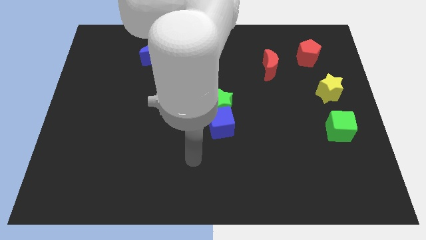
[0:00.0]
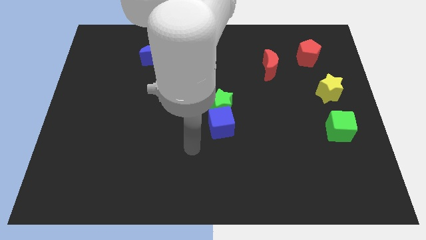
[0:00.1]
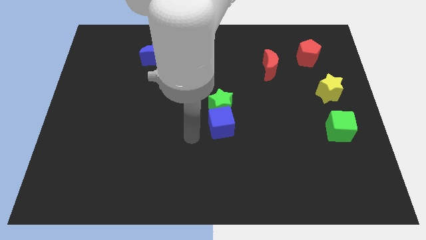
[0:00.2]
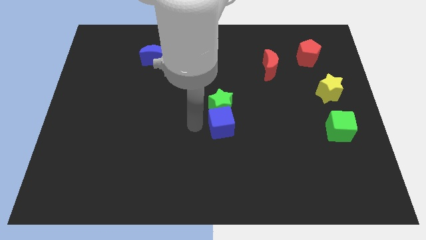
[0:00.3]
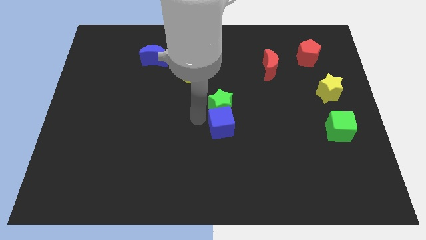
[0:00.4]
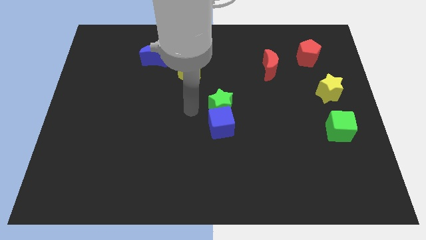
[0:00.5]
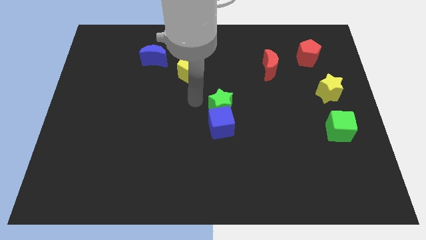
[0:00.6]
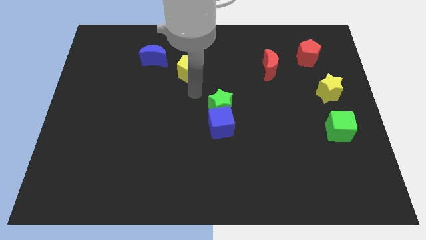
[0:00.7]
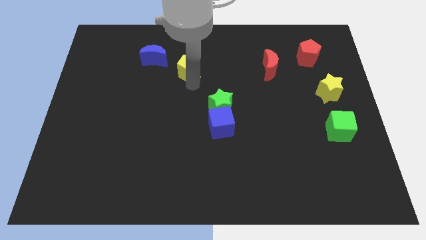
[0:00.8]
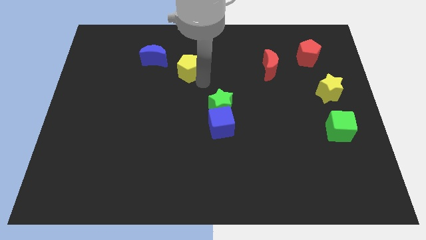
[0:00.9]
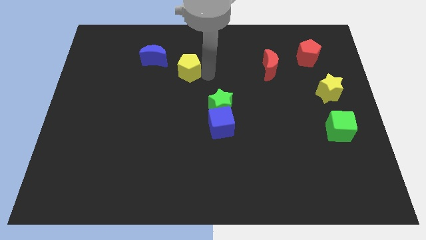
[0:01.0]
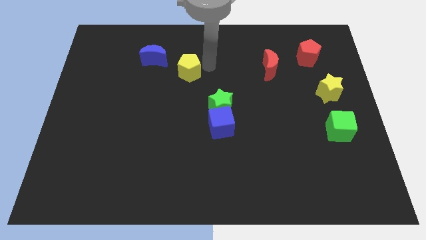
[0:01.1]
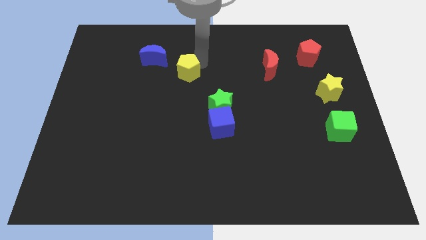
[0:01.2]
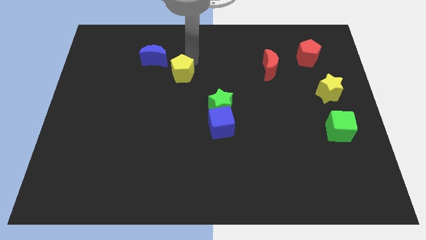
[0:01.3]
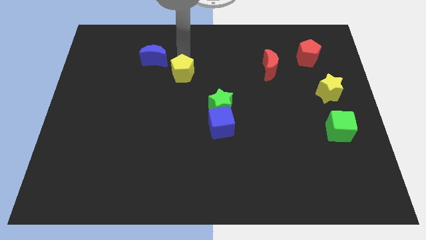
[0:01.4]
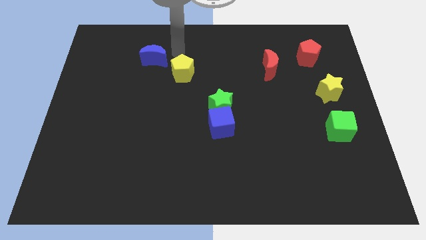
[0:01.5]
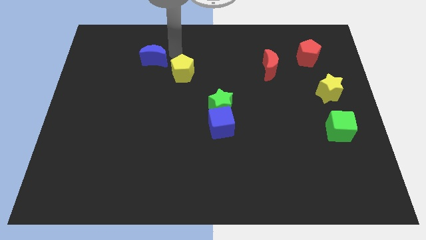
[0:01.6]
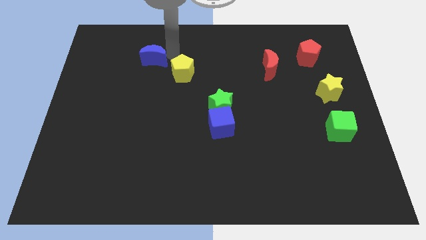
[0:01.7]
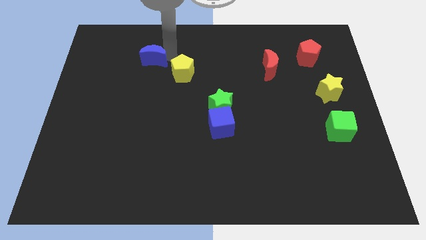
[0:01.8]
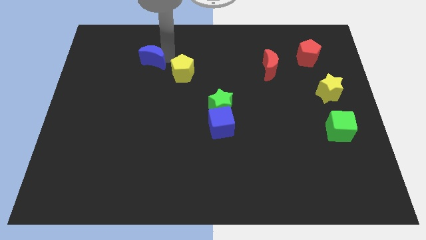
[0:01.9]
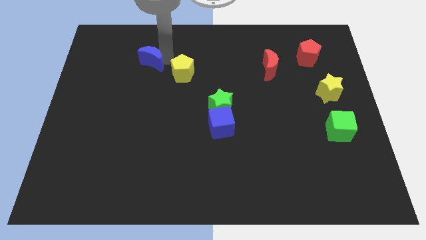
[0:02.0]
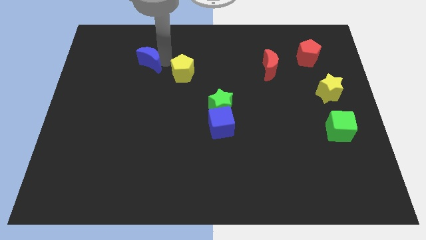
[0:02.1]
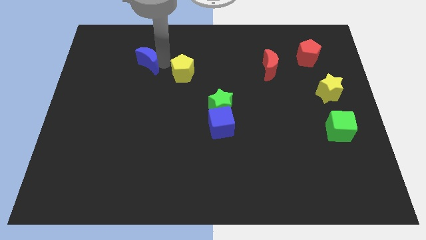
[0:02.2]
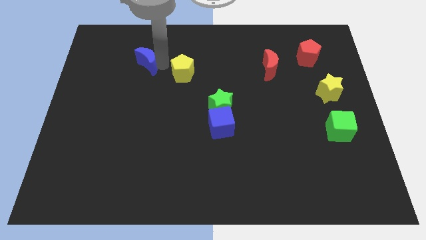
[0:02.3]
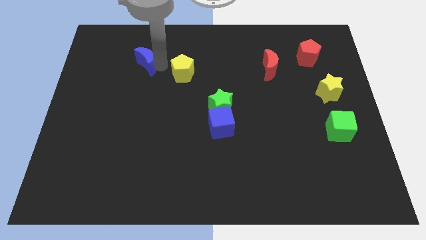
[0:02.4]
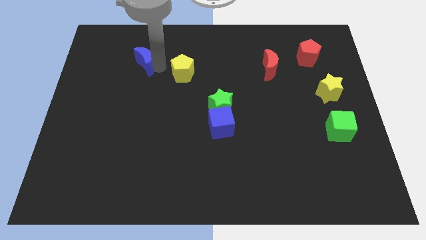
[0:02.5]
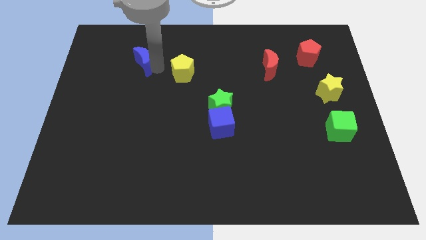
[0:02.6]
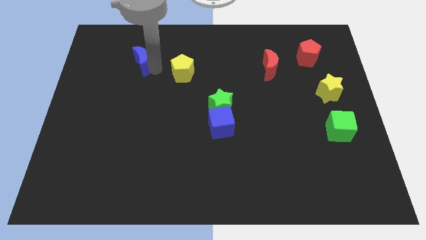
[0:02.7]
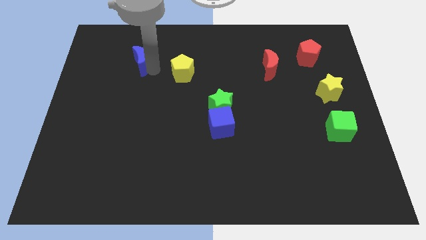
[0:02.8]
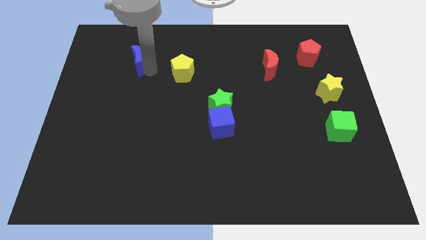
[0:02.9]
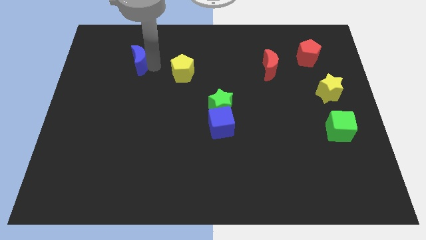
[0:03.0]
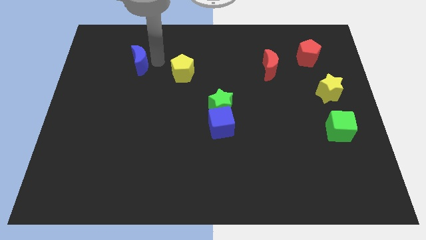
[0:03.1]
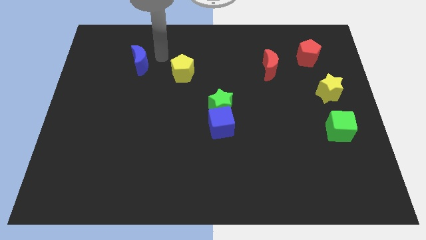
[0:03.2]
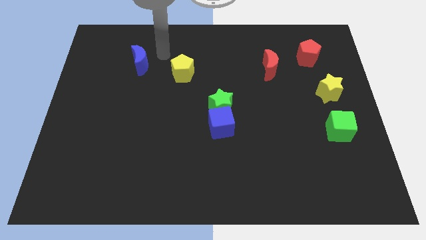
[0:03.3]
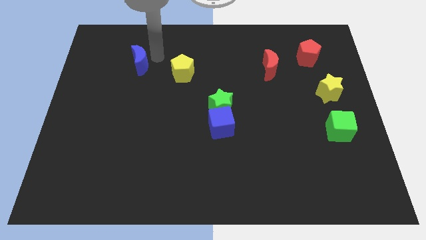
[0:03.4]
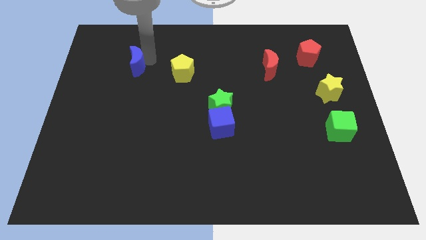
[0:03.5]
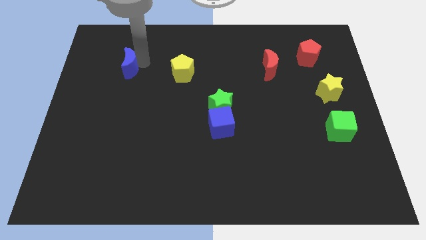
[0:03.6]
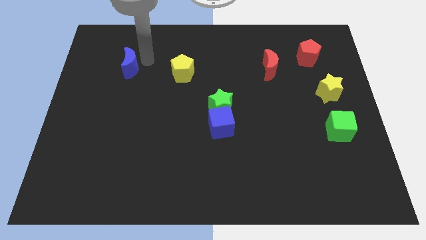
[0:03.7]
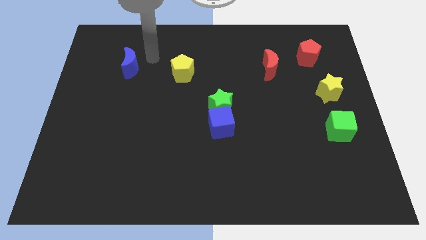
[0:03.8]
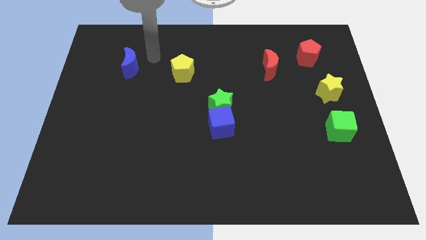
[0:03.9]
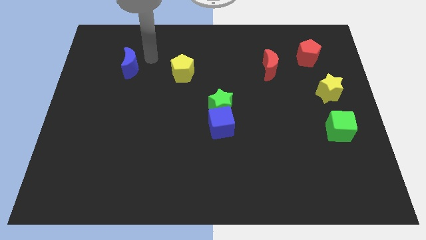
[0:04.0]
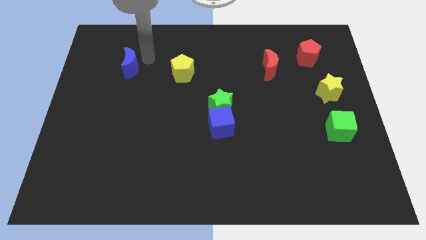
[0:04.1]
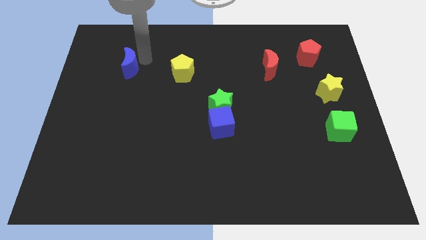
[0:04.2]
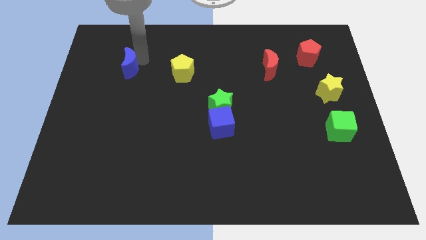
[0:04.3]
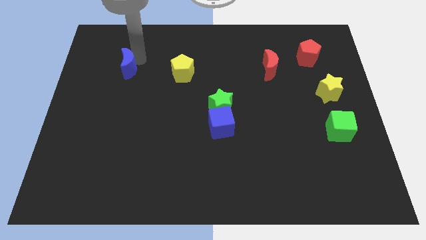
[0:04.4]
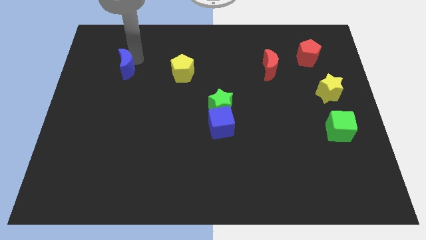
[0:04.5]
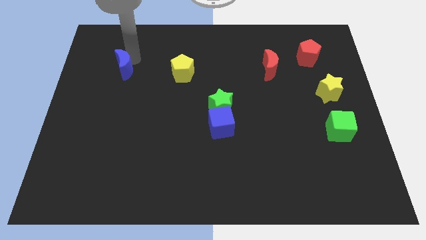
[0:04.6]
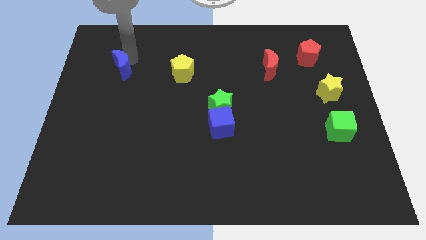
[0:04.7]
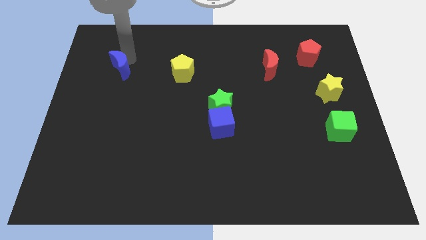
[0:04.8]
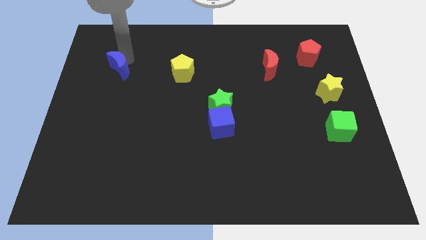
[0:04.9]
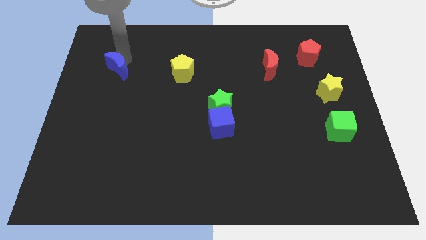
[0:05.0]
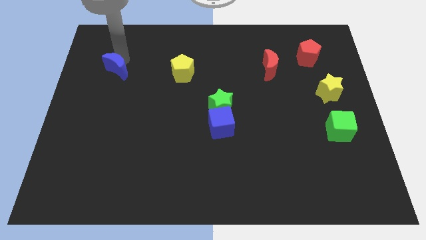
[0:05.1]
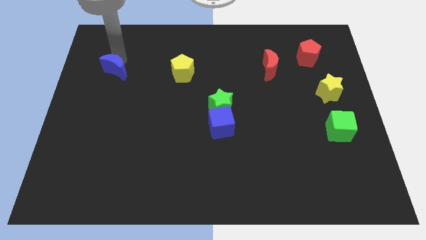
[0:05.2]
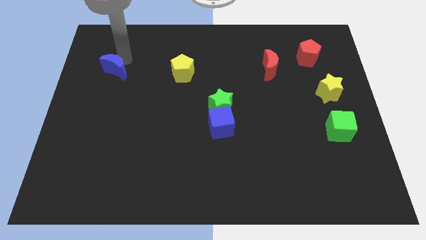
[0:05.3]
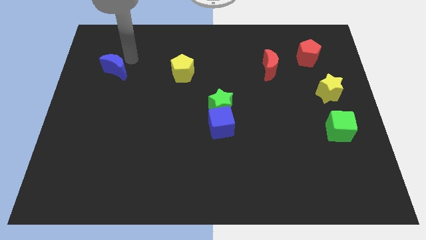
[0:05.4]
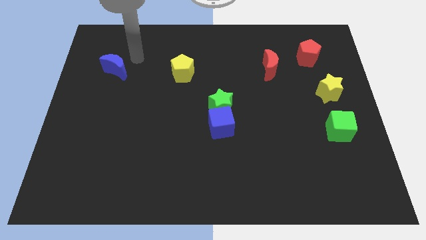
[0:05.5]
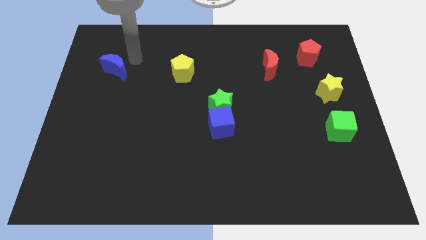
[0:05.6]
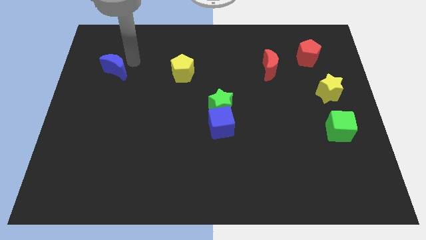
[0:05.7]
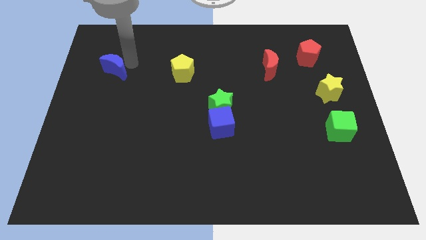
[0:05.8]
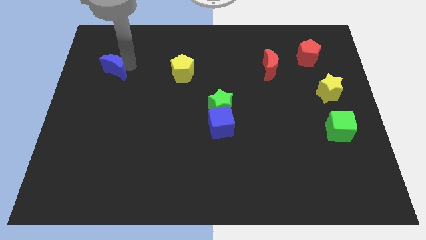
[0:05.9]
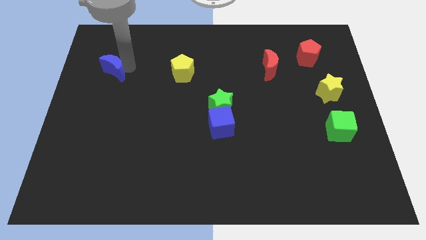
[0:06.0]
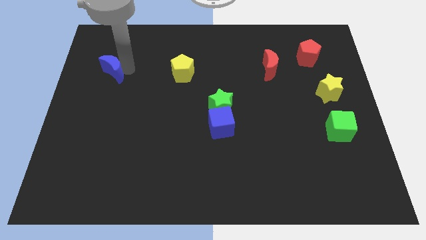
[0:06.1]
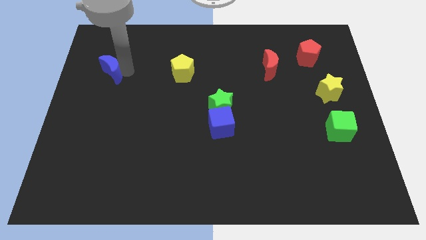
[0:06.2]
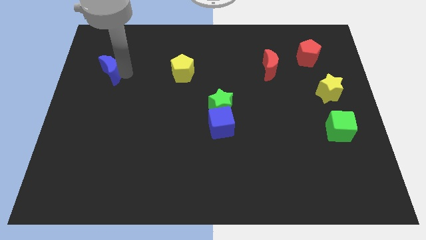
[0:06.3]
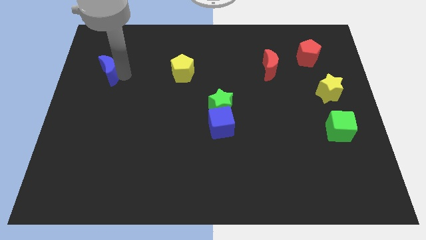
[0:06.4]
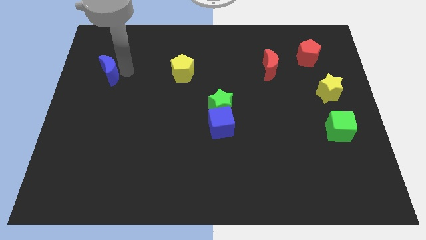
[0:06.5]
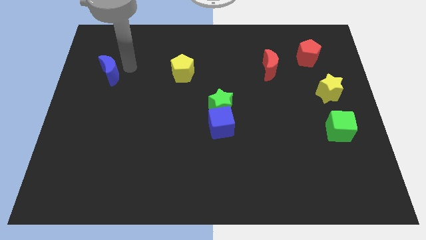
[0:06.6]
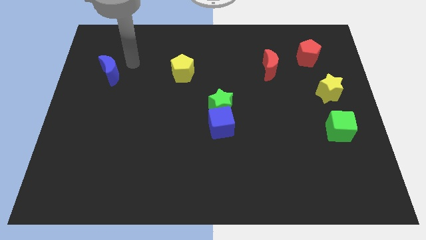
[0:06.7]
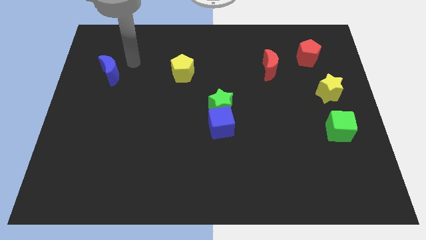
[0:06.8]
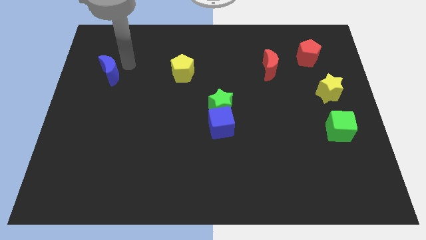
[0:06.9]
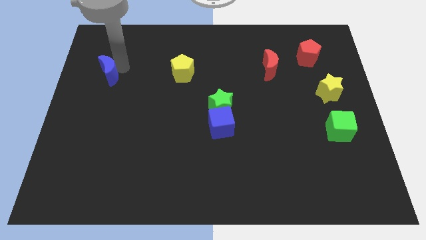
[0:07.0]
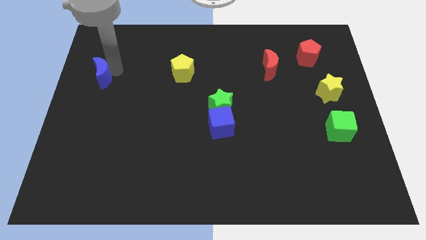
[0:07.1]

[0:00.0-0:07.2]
slide the blue moon to the center left
